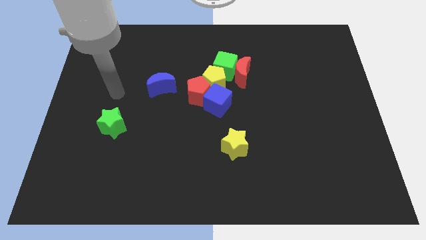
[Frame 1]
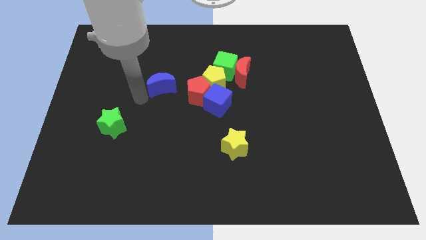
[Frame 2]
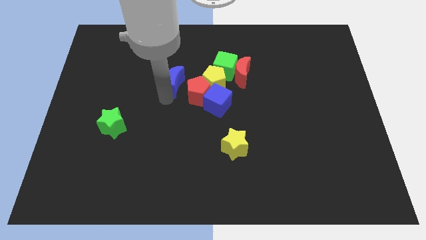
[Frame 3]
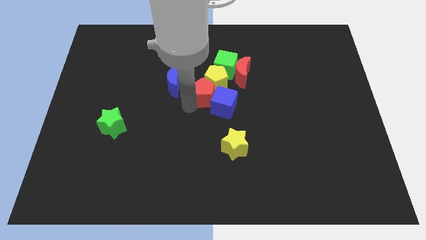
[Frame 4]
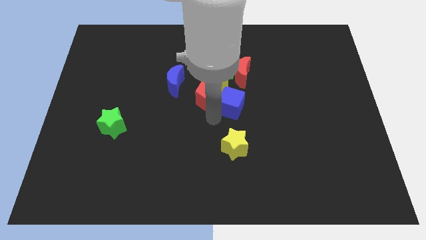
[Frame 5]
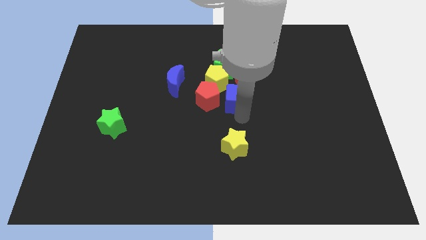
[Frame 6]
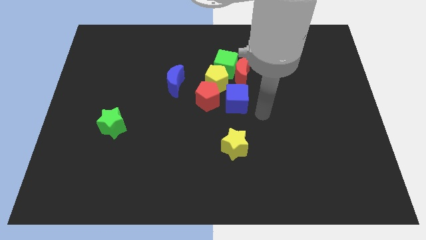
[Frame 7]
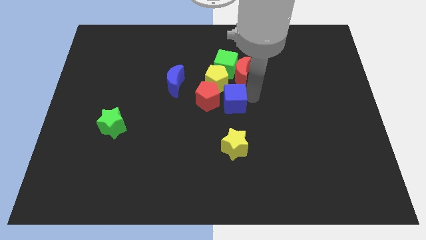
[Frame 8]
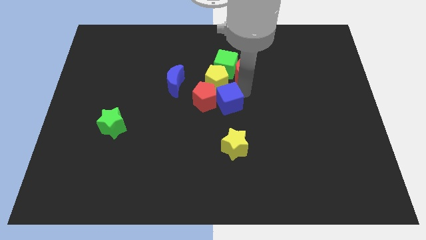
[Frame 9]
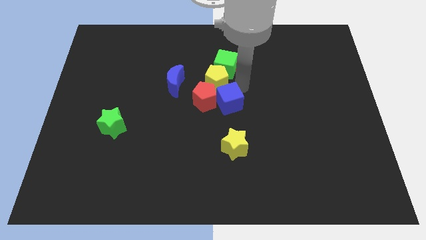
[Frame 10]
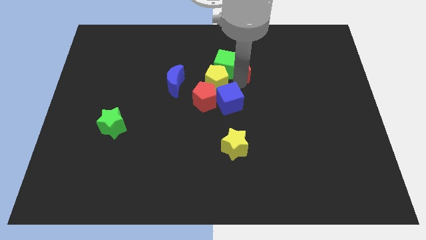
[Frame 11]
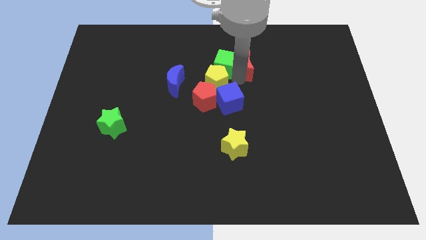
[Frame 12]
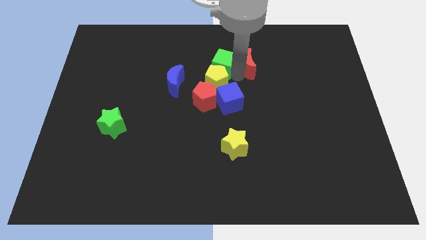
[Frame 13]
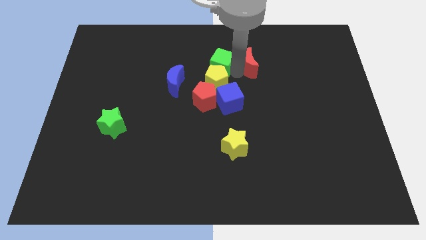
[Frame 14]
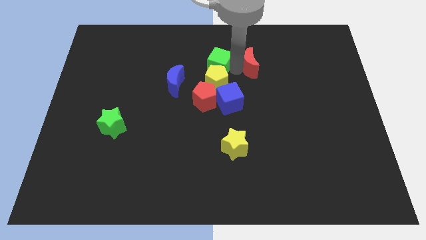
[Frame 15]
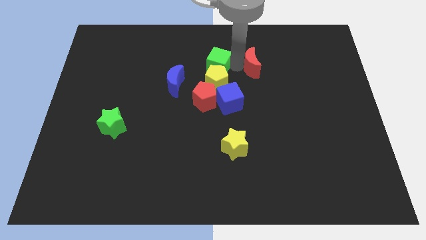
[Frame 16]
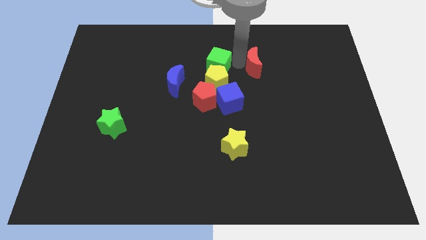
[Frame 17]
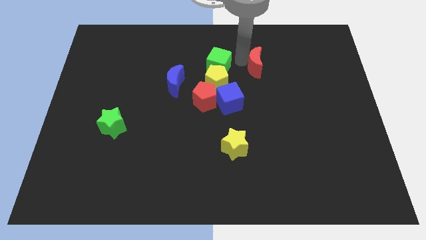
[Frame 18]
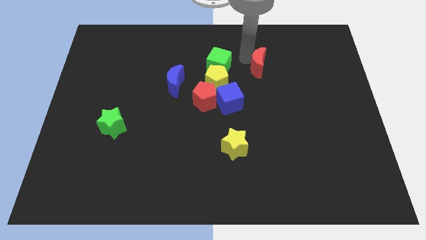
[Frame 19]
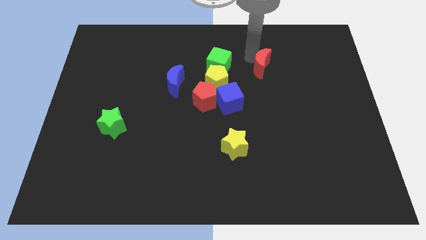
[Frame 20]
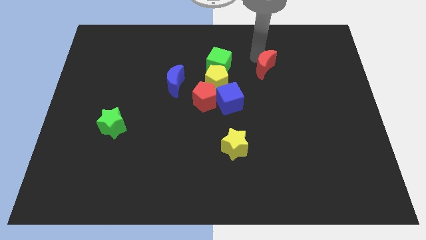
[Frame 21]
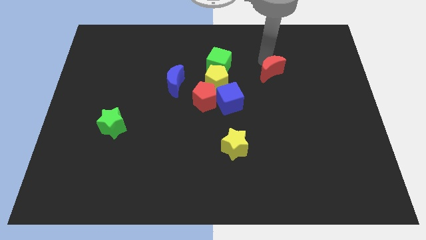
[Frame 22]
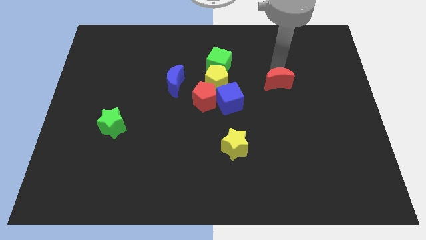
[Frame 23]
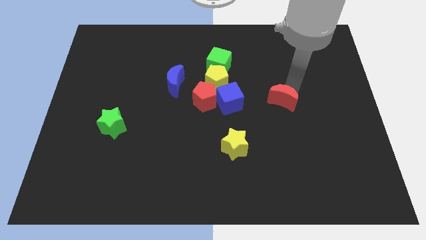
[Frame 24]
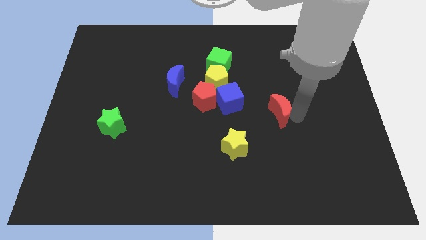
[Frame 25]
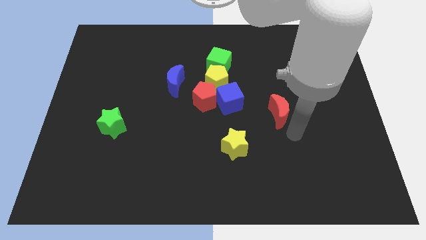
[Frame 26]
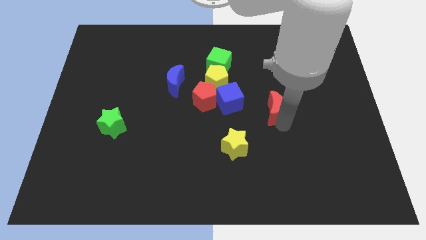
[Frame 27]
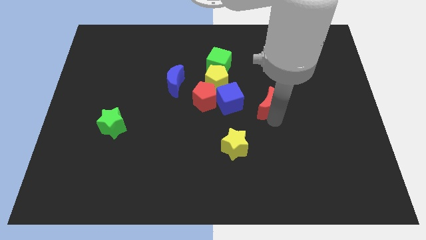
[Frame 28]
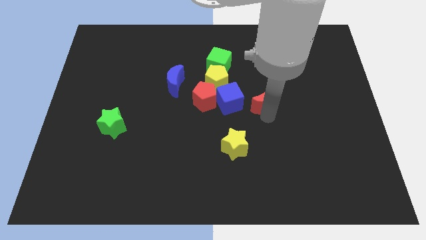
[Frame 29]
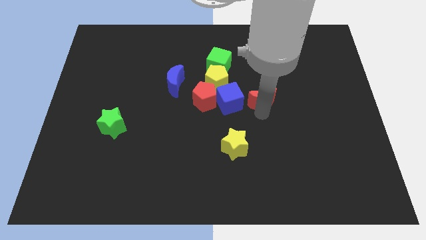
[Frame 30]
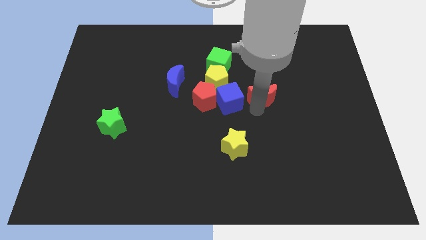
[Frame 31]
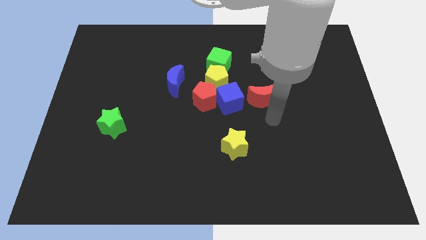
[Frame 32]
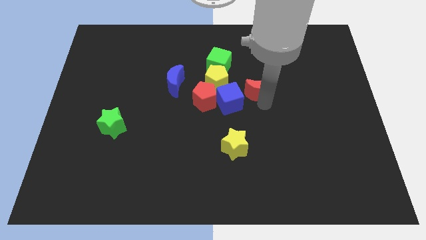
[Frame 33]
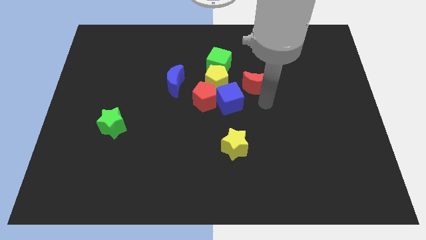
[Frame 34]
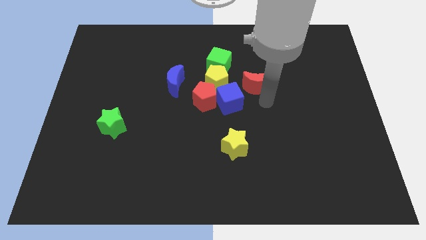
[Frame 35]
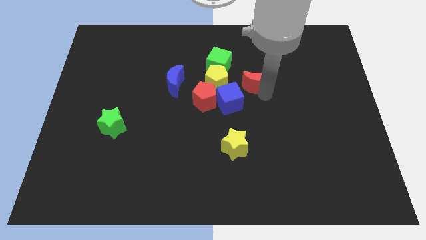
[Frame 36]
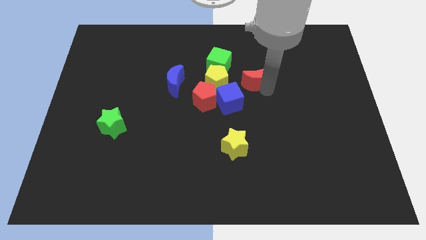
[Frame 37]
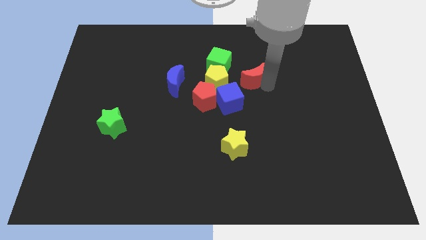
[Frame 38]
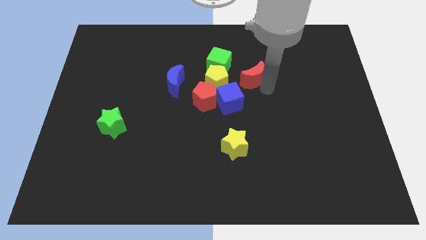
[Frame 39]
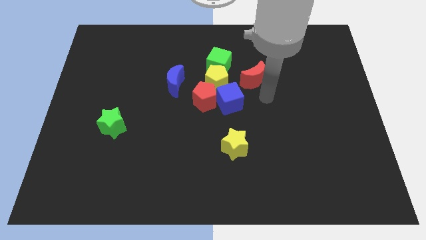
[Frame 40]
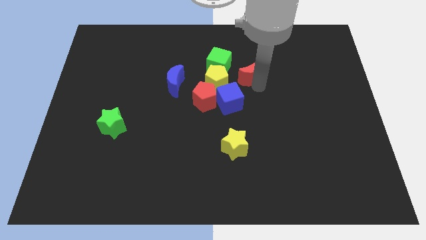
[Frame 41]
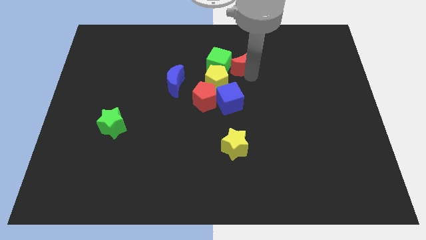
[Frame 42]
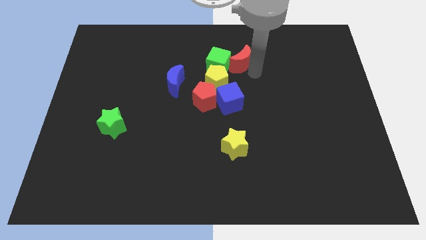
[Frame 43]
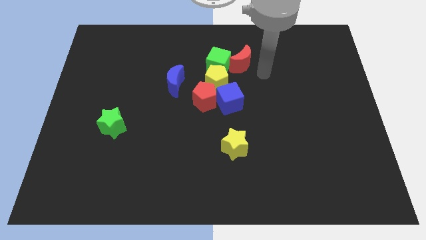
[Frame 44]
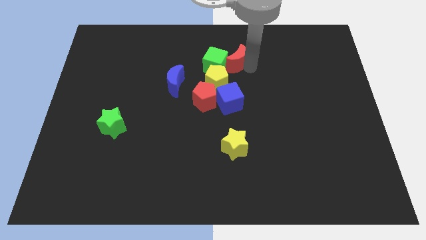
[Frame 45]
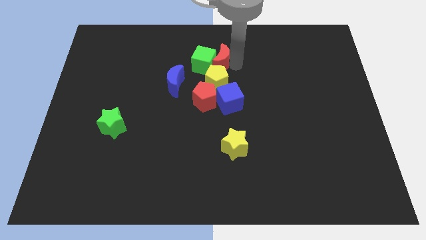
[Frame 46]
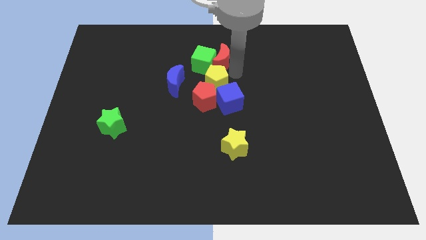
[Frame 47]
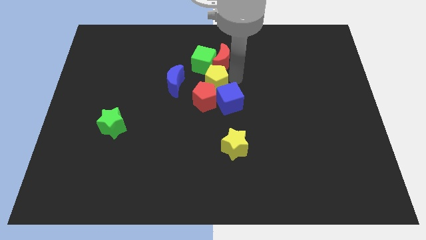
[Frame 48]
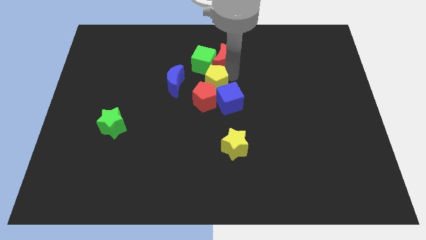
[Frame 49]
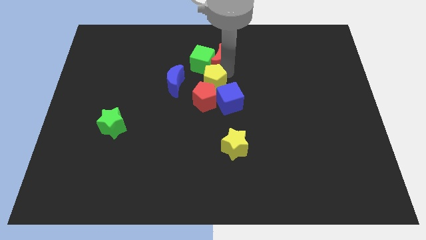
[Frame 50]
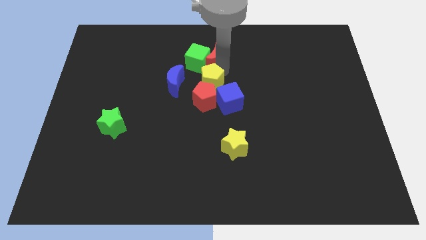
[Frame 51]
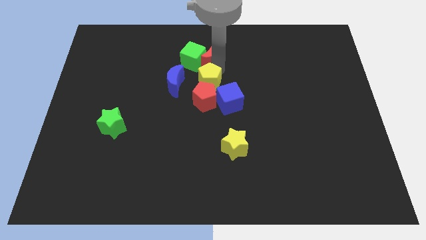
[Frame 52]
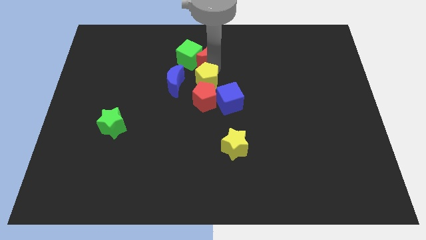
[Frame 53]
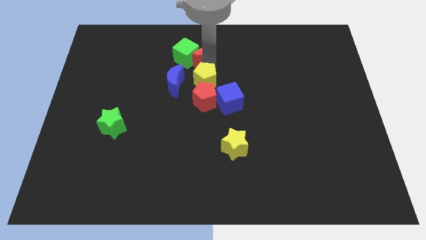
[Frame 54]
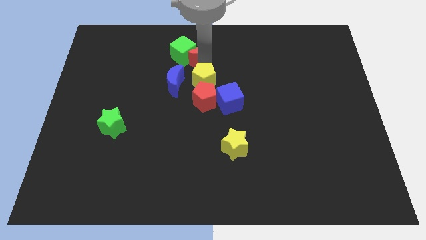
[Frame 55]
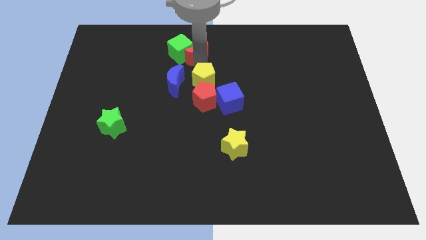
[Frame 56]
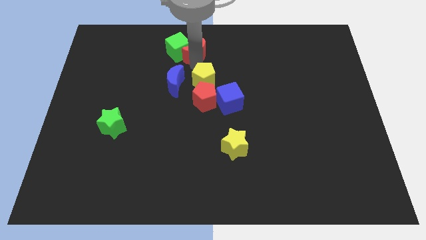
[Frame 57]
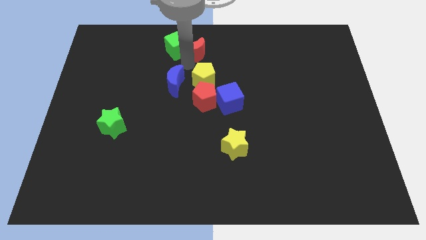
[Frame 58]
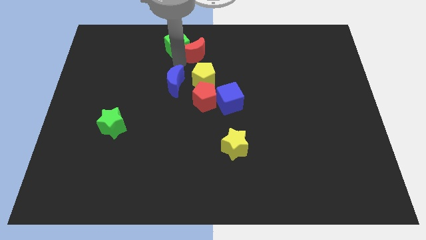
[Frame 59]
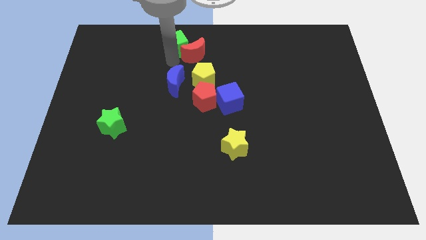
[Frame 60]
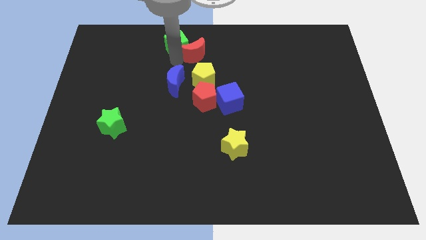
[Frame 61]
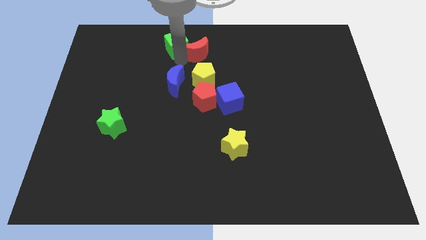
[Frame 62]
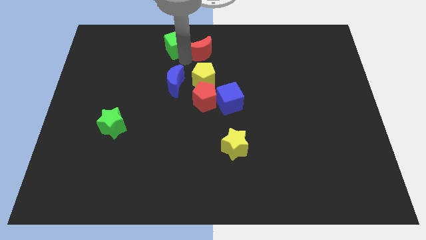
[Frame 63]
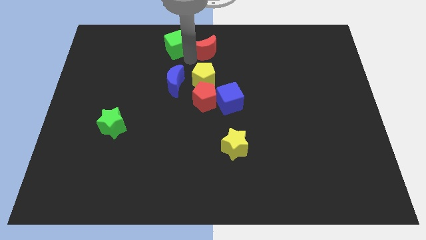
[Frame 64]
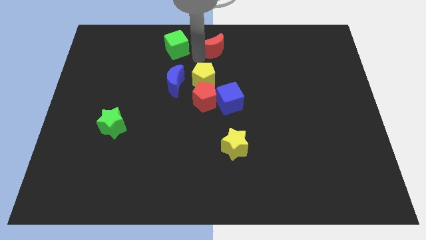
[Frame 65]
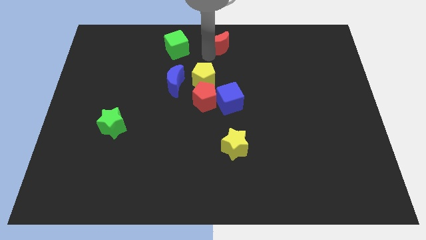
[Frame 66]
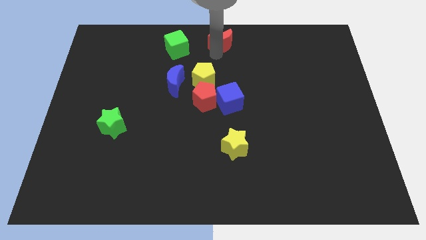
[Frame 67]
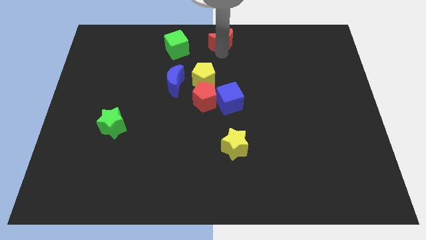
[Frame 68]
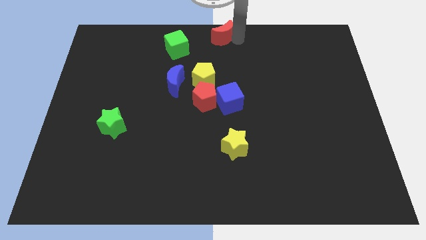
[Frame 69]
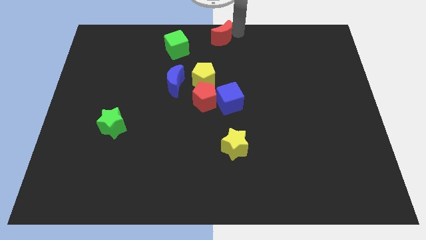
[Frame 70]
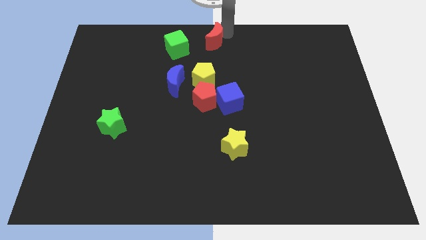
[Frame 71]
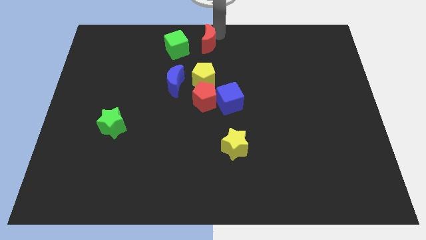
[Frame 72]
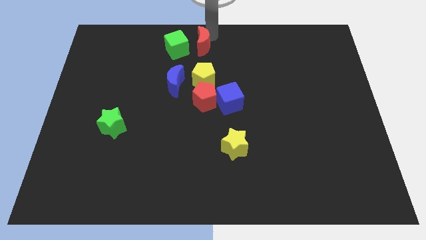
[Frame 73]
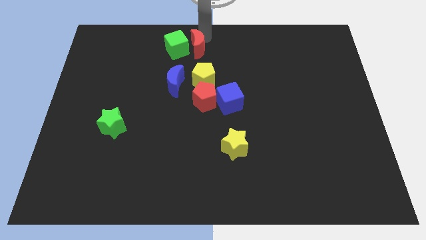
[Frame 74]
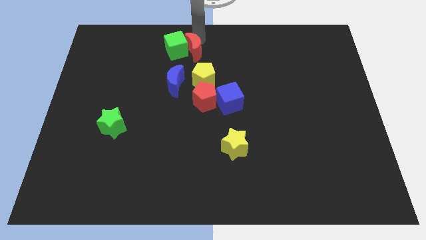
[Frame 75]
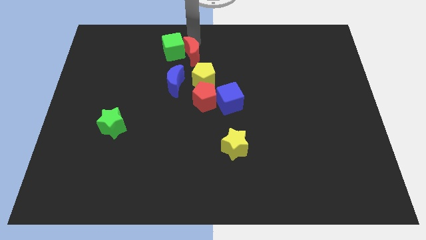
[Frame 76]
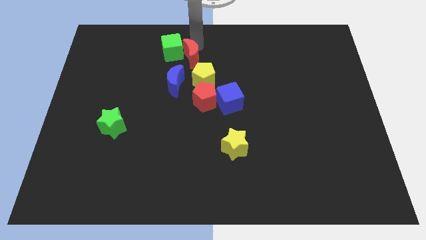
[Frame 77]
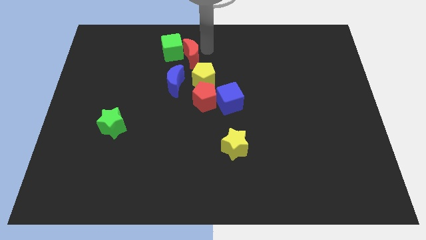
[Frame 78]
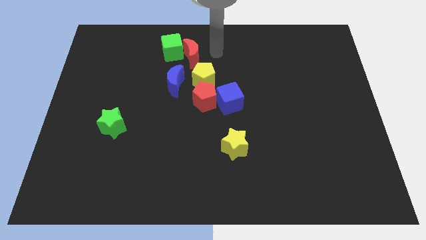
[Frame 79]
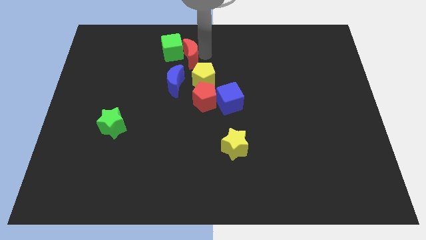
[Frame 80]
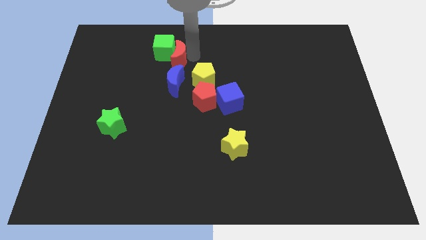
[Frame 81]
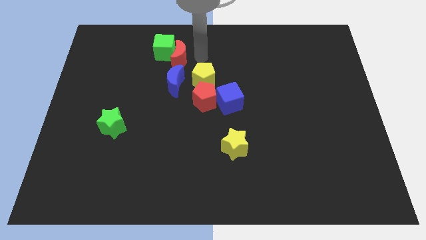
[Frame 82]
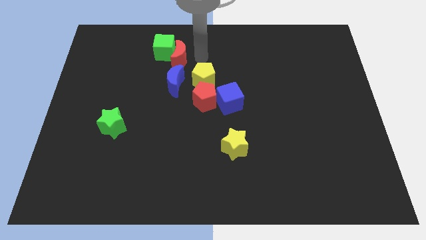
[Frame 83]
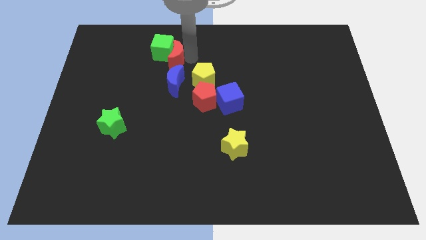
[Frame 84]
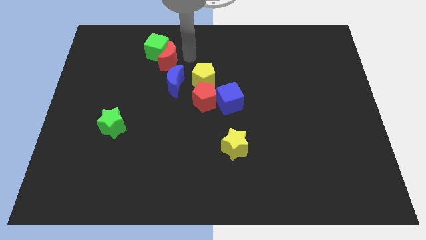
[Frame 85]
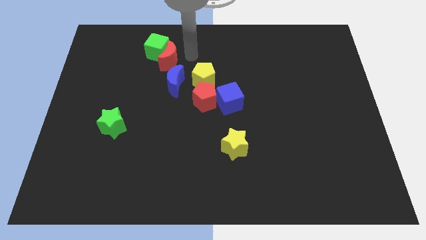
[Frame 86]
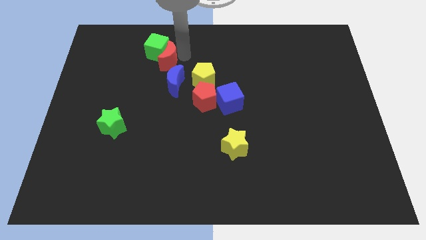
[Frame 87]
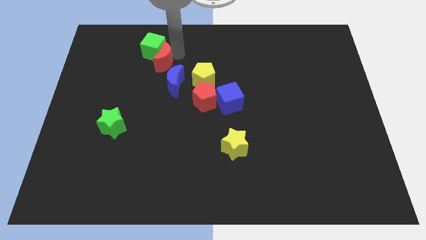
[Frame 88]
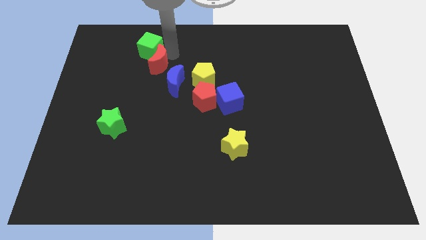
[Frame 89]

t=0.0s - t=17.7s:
move the red moon to the left
